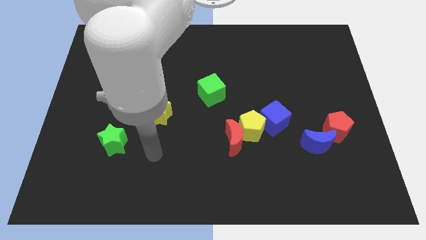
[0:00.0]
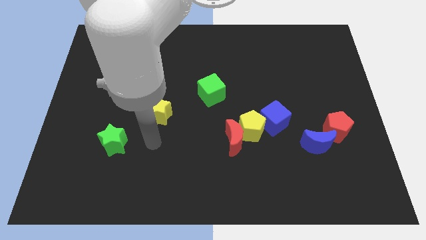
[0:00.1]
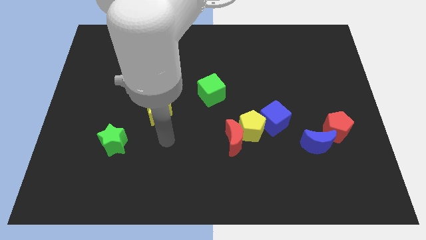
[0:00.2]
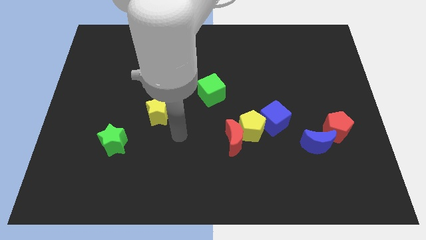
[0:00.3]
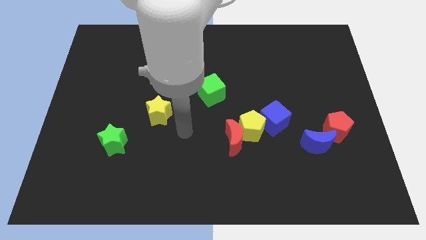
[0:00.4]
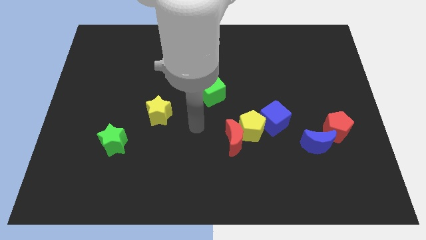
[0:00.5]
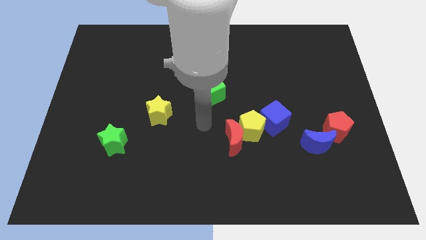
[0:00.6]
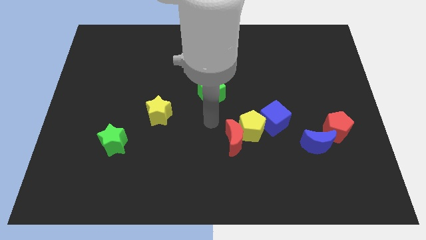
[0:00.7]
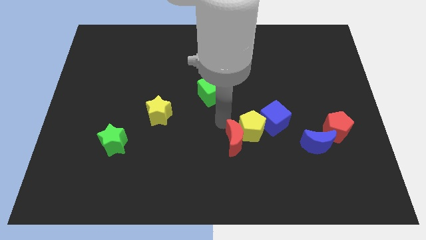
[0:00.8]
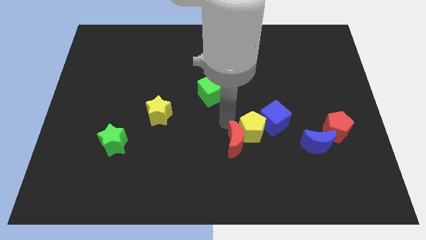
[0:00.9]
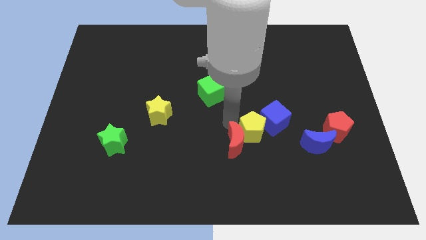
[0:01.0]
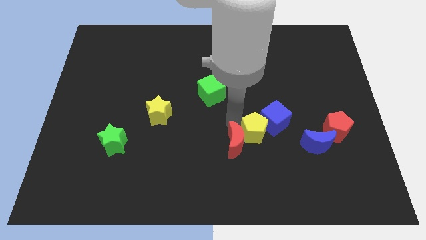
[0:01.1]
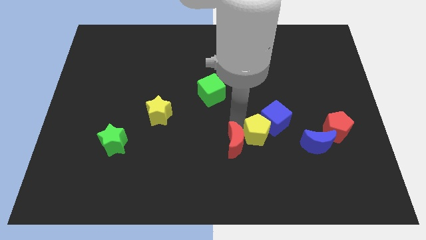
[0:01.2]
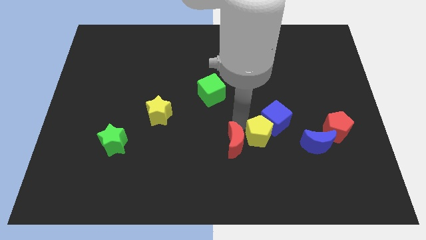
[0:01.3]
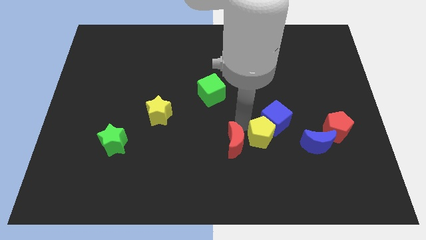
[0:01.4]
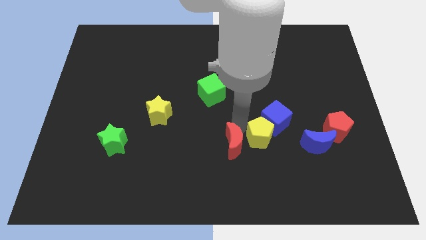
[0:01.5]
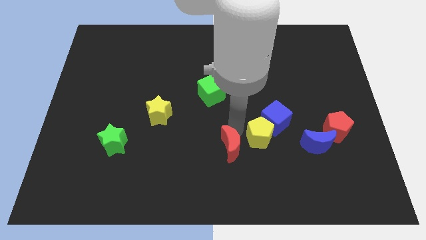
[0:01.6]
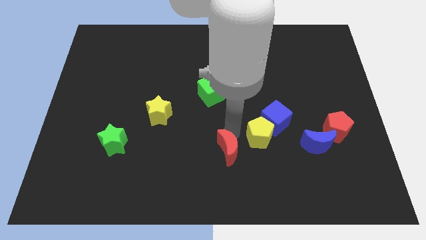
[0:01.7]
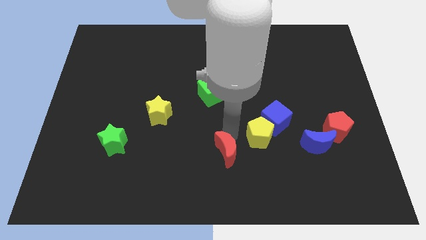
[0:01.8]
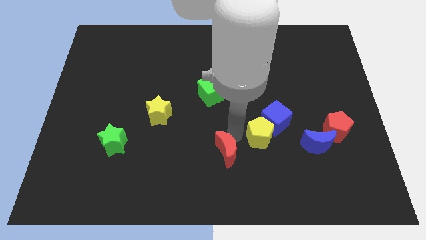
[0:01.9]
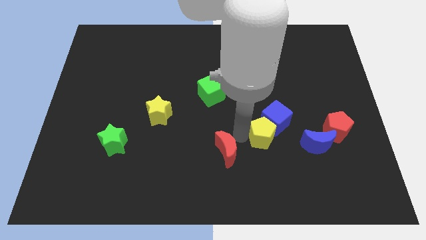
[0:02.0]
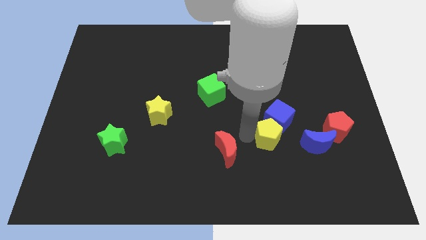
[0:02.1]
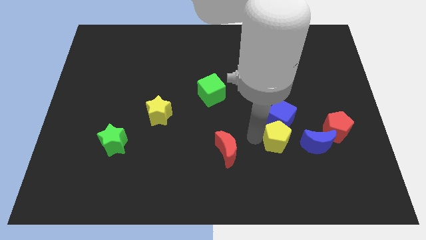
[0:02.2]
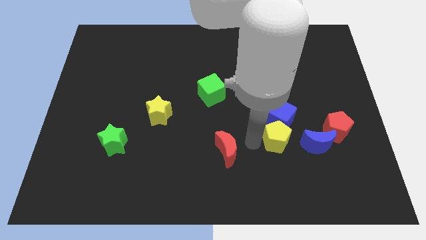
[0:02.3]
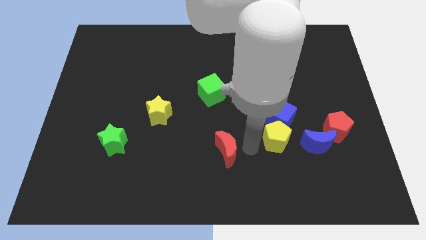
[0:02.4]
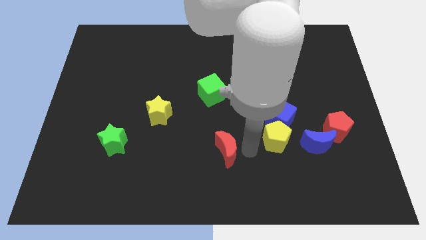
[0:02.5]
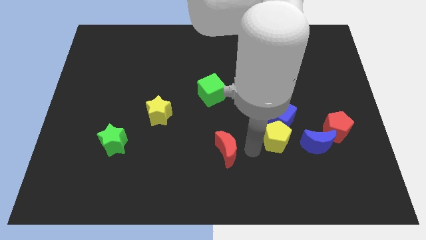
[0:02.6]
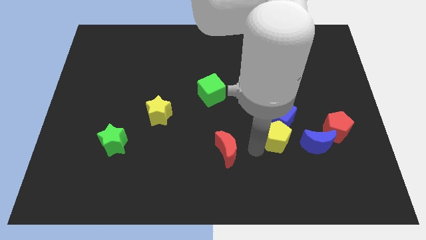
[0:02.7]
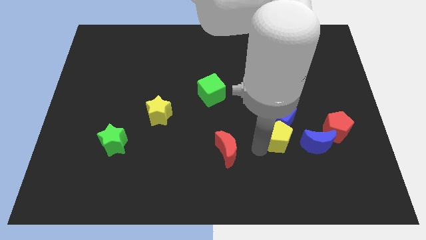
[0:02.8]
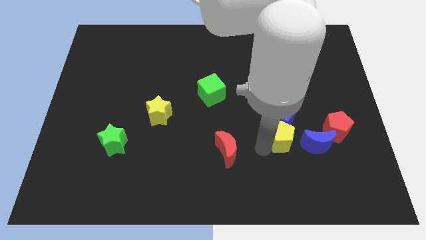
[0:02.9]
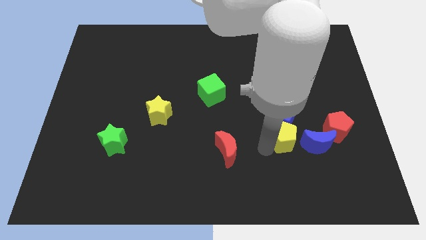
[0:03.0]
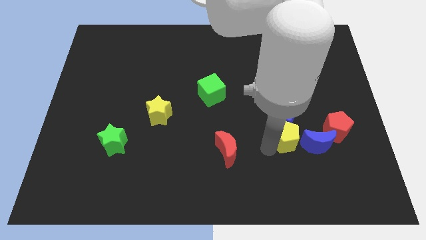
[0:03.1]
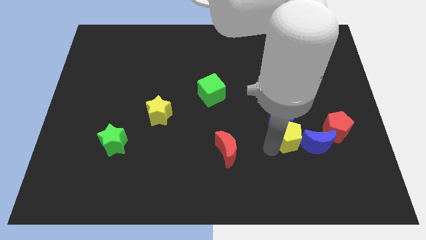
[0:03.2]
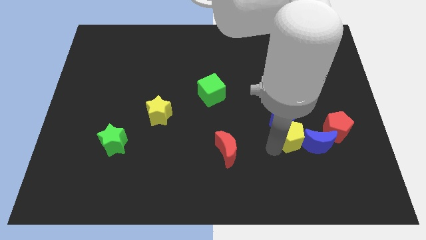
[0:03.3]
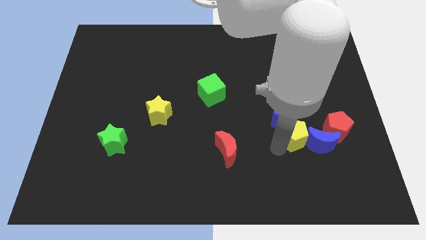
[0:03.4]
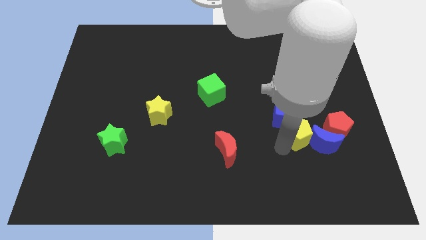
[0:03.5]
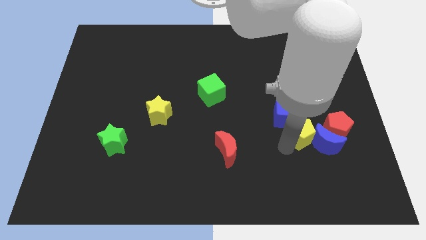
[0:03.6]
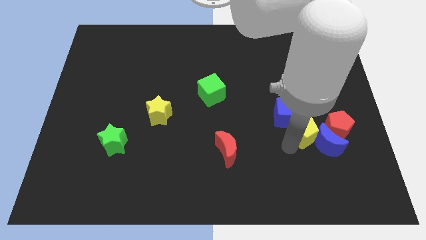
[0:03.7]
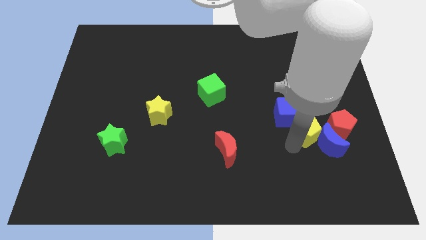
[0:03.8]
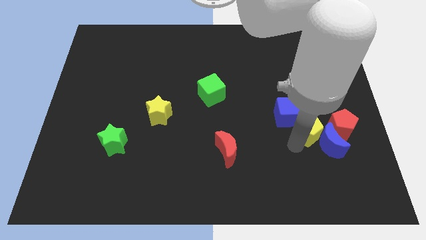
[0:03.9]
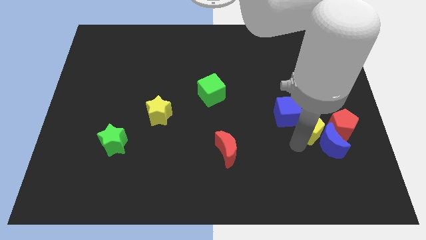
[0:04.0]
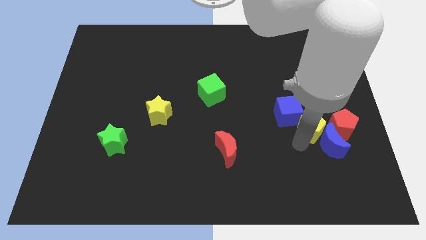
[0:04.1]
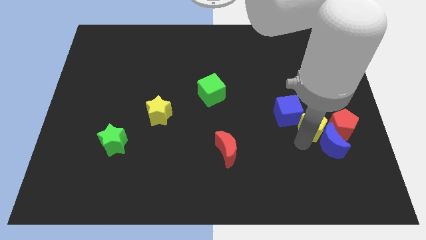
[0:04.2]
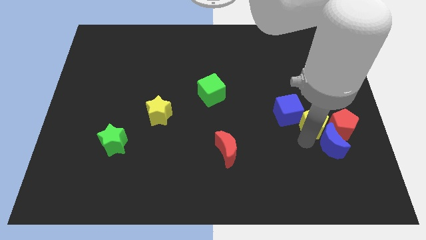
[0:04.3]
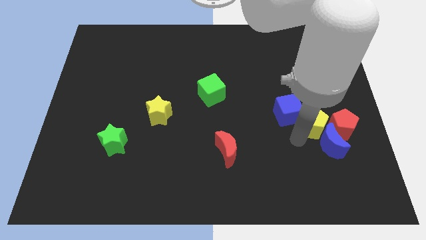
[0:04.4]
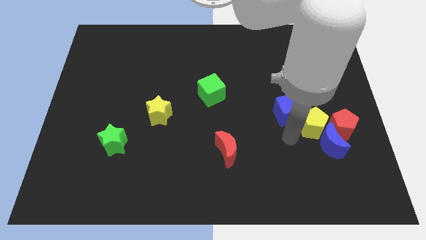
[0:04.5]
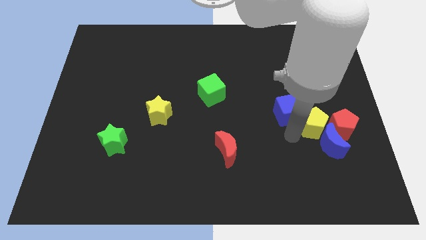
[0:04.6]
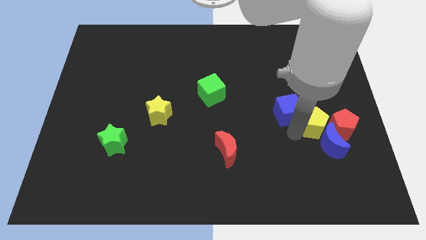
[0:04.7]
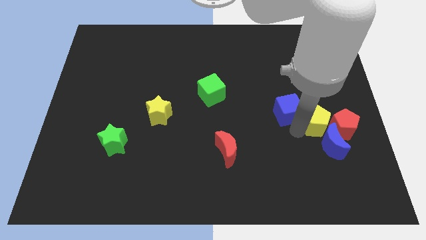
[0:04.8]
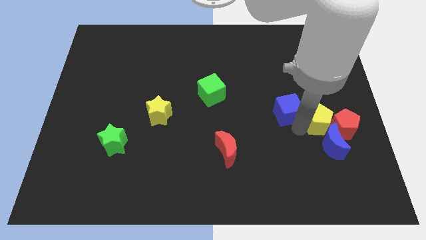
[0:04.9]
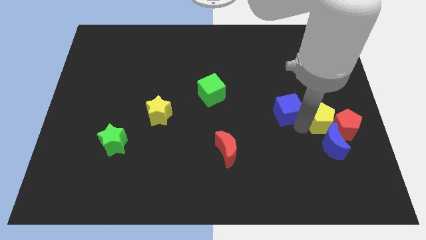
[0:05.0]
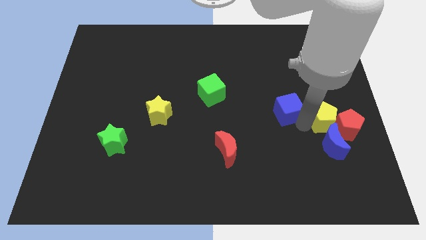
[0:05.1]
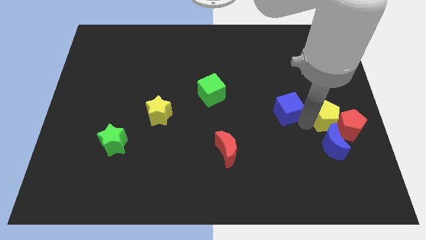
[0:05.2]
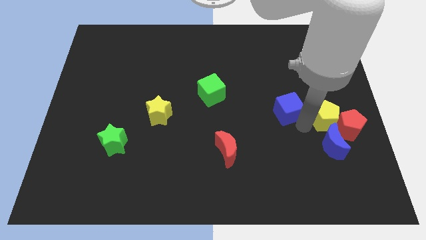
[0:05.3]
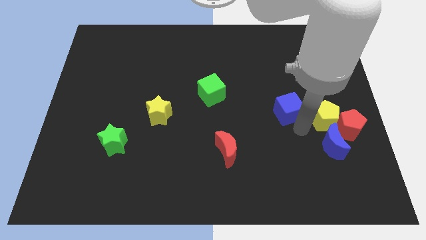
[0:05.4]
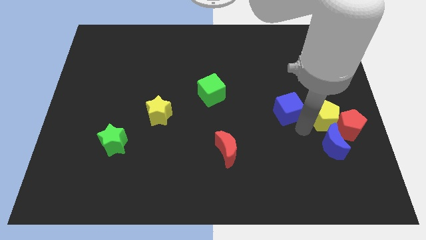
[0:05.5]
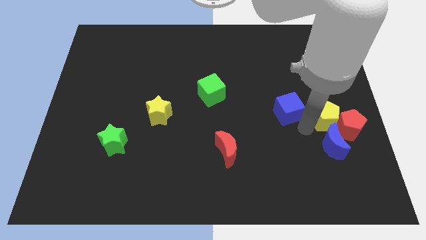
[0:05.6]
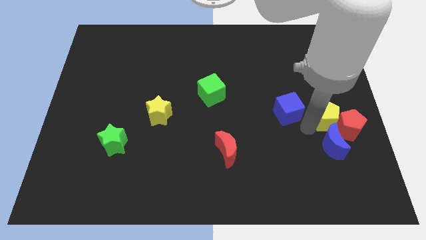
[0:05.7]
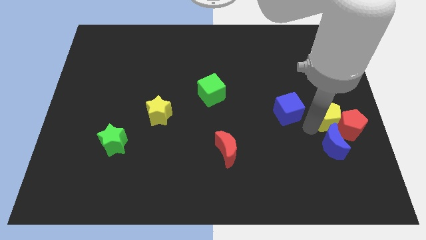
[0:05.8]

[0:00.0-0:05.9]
slide the yellow pentagon to the right side of the board

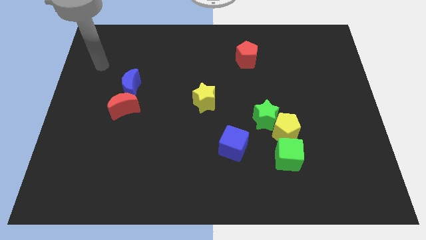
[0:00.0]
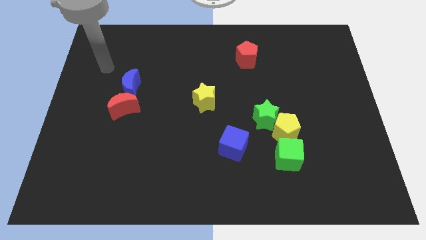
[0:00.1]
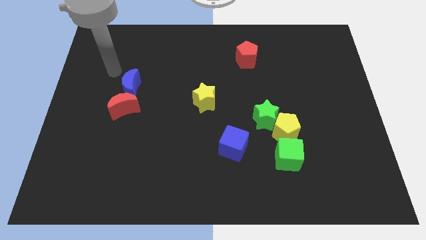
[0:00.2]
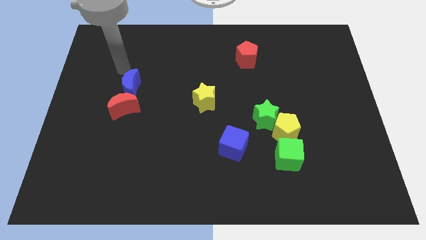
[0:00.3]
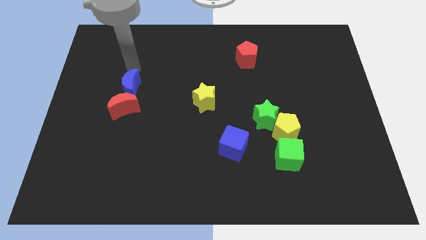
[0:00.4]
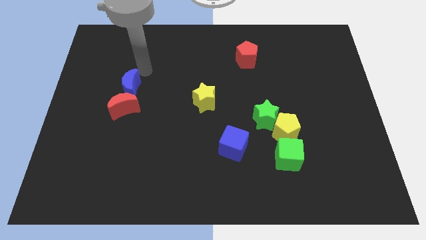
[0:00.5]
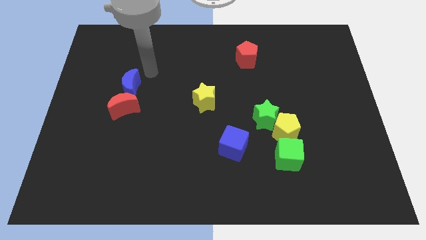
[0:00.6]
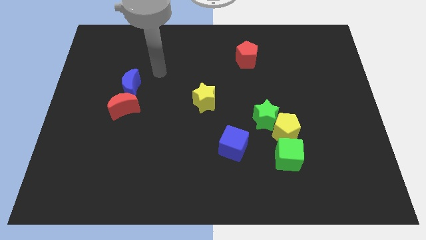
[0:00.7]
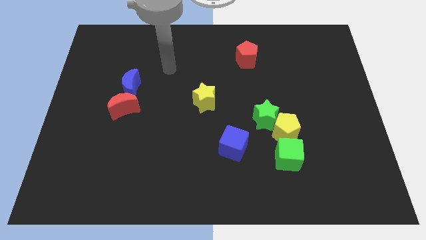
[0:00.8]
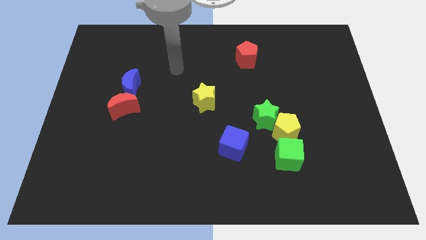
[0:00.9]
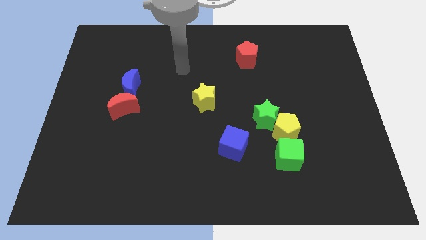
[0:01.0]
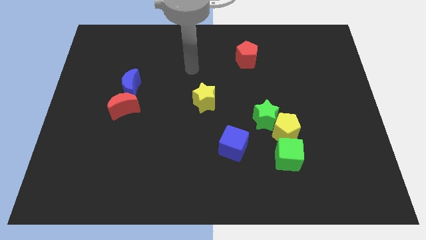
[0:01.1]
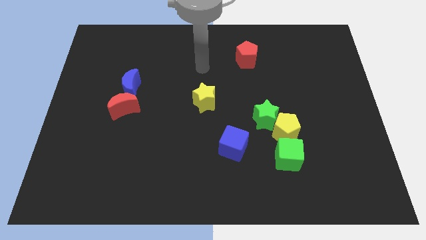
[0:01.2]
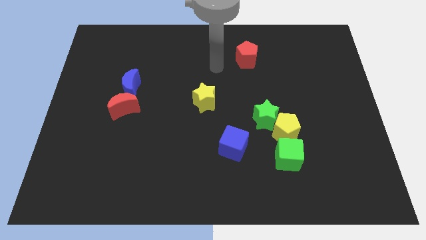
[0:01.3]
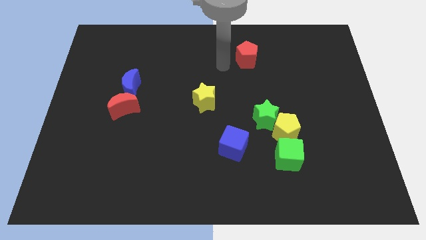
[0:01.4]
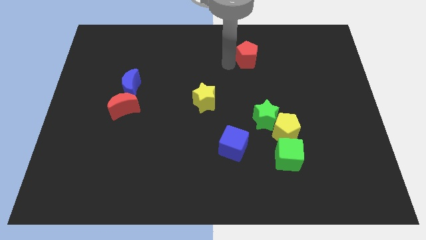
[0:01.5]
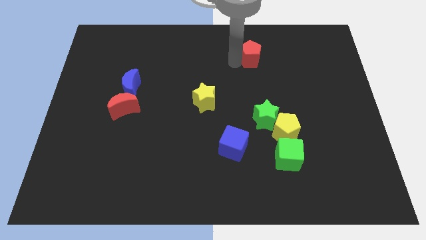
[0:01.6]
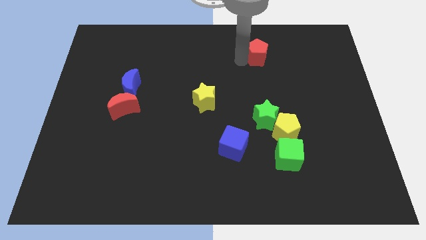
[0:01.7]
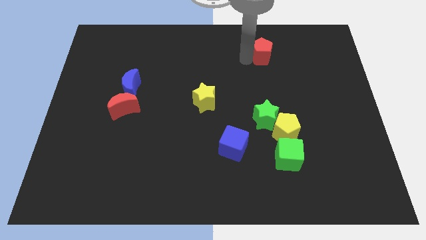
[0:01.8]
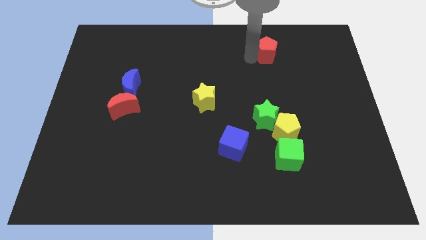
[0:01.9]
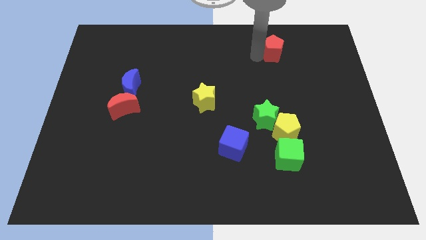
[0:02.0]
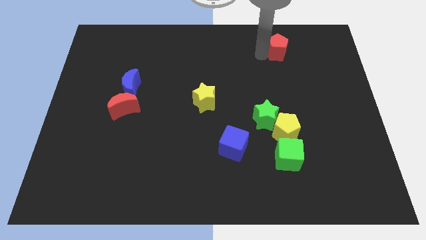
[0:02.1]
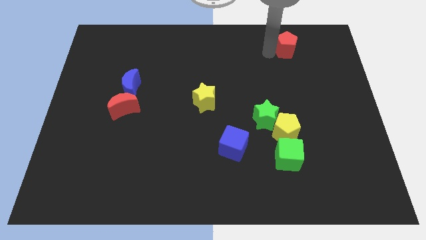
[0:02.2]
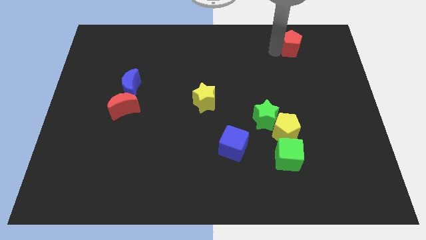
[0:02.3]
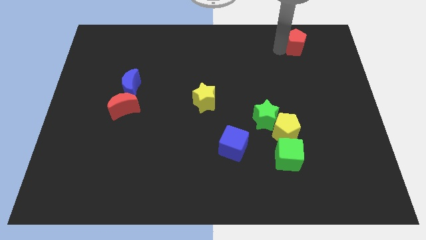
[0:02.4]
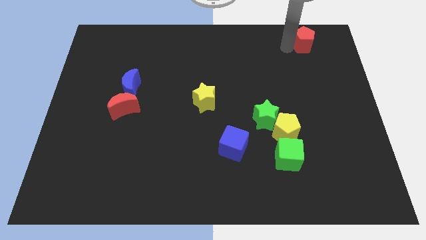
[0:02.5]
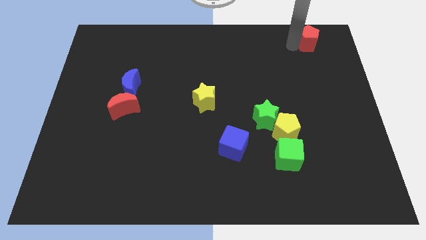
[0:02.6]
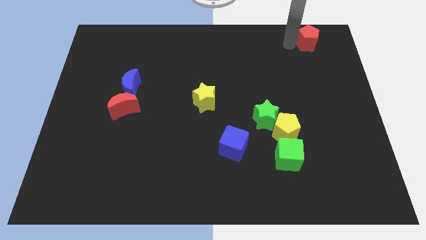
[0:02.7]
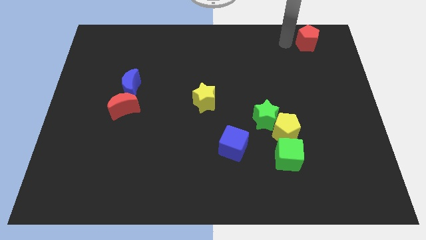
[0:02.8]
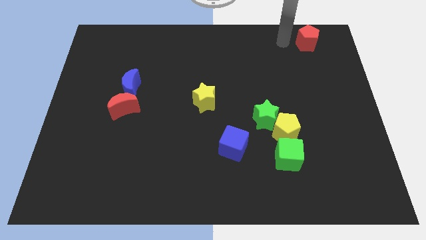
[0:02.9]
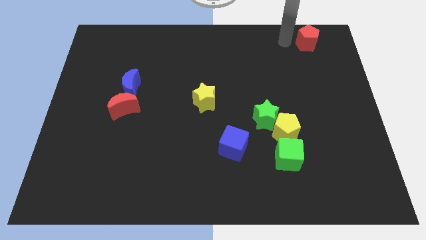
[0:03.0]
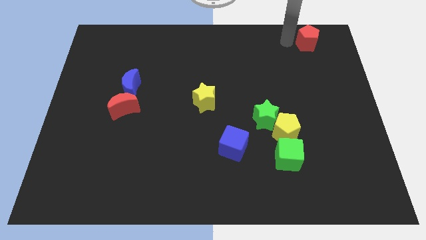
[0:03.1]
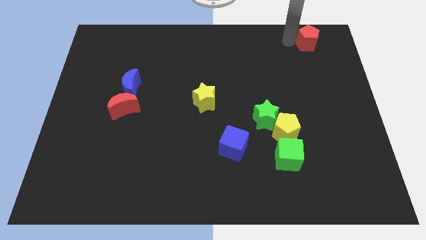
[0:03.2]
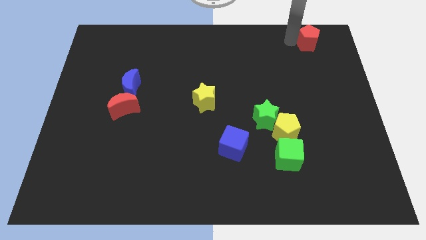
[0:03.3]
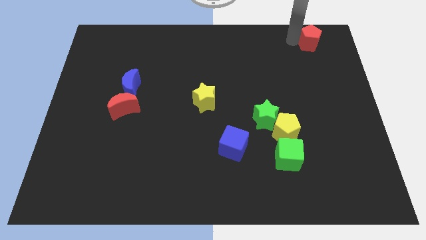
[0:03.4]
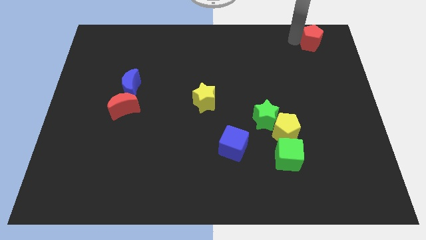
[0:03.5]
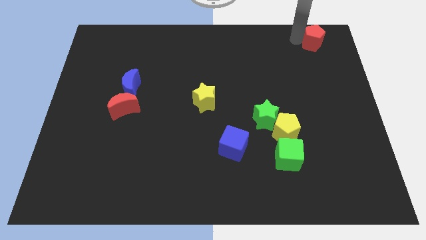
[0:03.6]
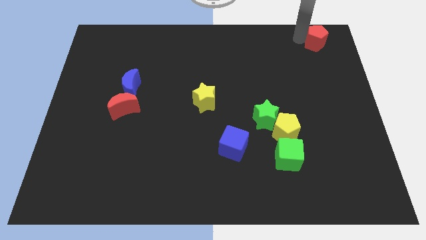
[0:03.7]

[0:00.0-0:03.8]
slide the red pentagon to the top right
